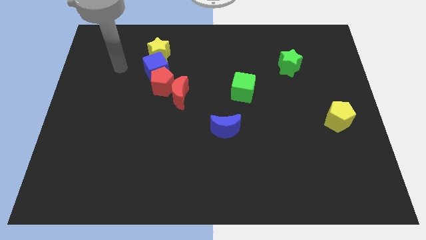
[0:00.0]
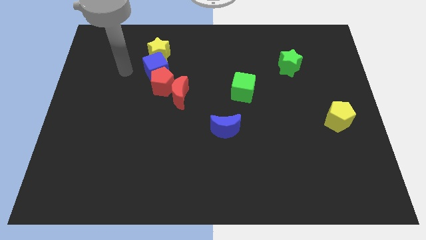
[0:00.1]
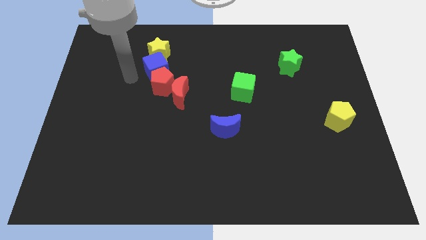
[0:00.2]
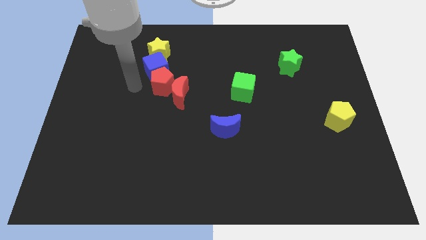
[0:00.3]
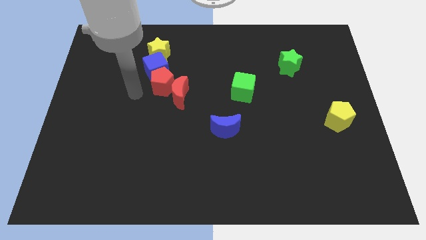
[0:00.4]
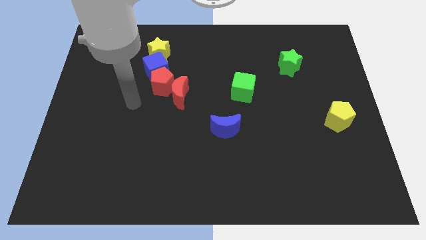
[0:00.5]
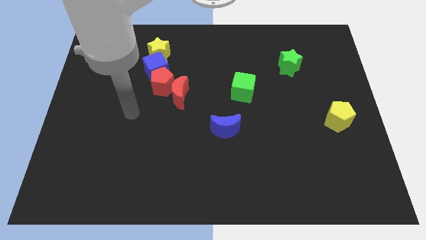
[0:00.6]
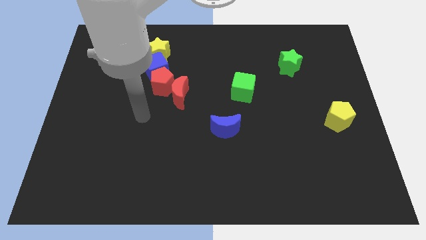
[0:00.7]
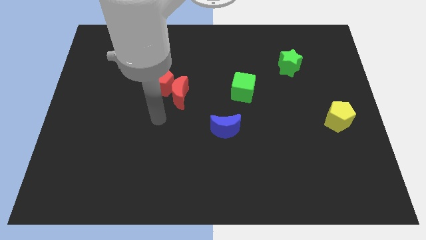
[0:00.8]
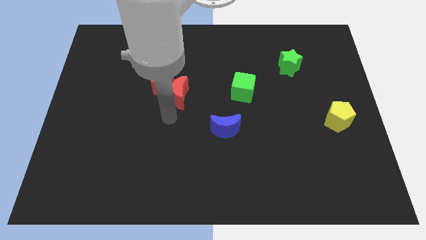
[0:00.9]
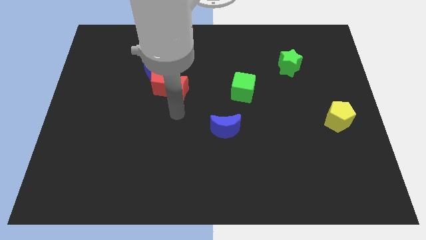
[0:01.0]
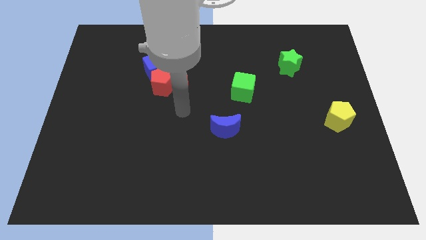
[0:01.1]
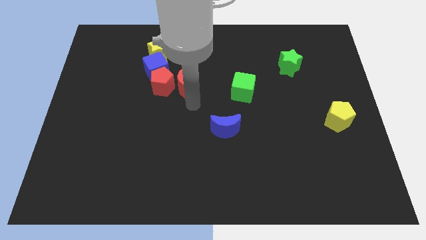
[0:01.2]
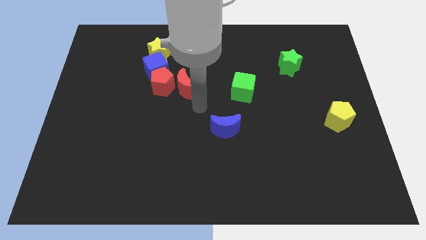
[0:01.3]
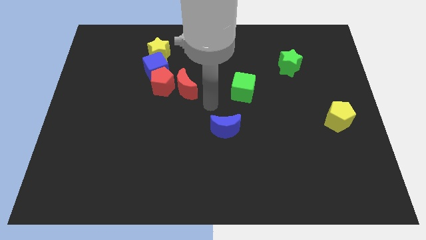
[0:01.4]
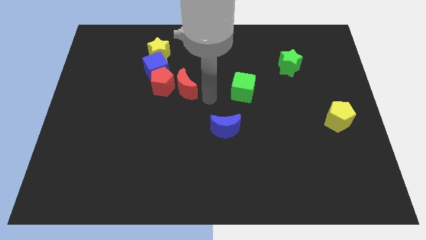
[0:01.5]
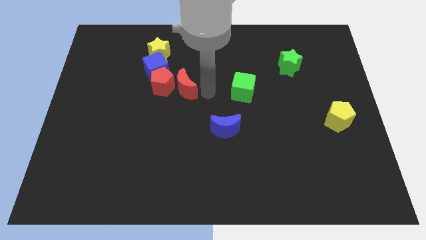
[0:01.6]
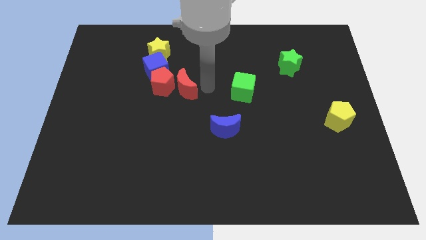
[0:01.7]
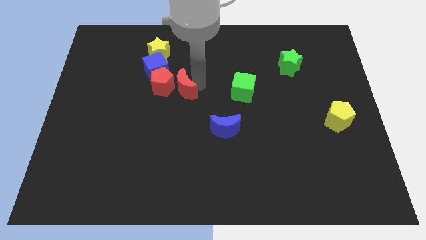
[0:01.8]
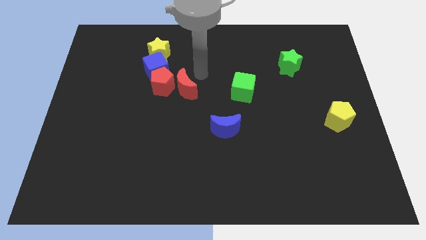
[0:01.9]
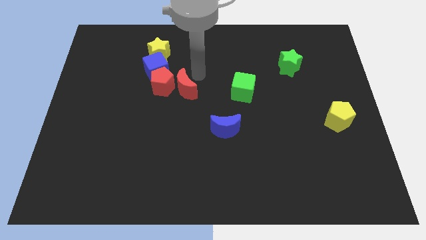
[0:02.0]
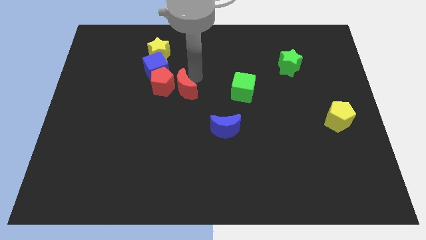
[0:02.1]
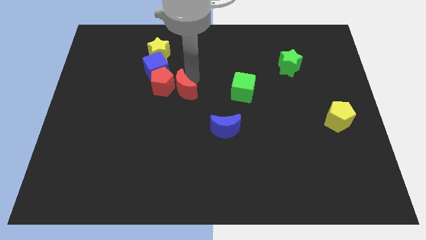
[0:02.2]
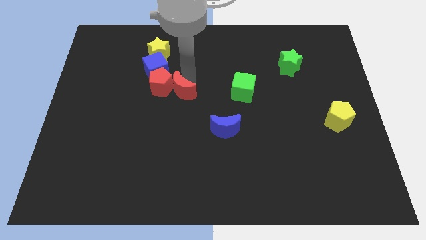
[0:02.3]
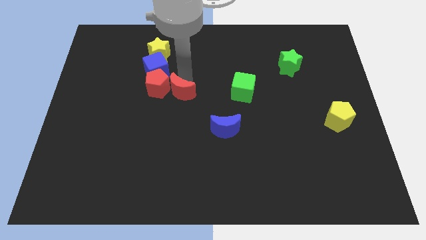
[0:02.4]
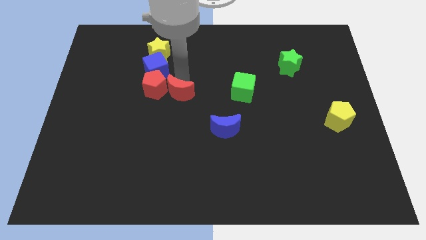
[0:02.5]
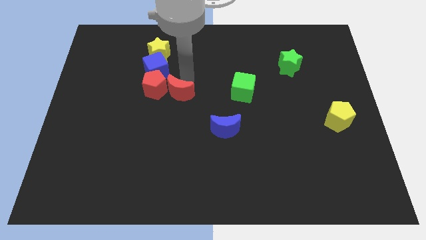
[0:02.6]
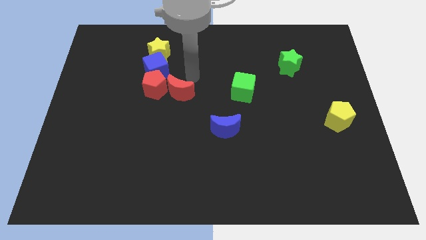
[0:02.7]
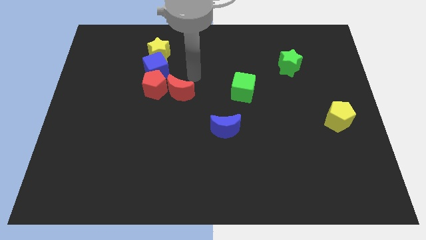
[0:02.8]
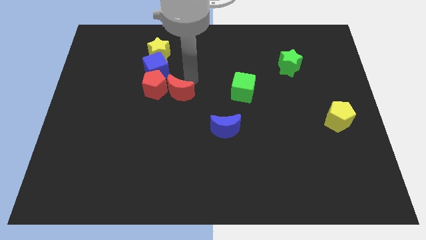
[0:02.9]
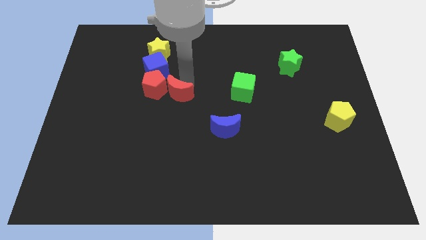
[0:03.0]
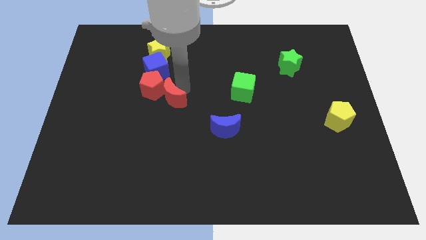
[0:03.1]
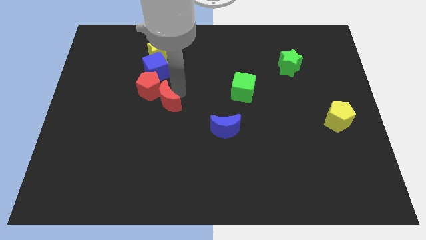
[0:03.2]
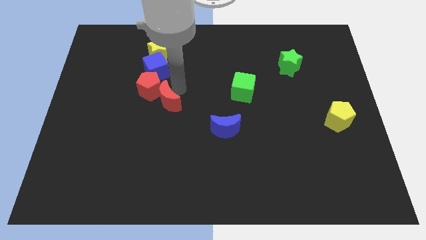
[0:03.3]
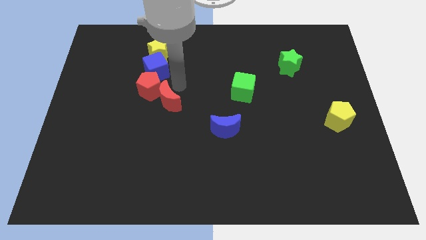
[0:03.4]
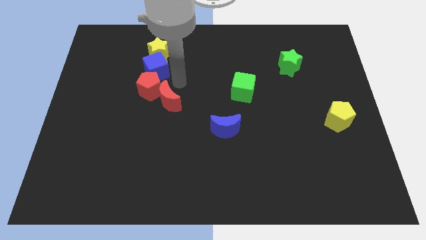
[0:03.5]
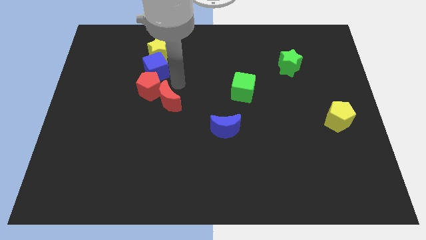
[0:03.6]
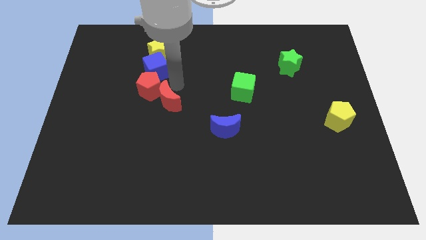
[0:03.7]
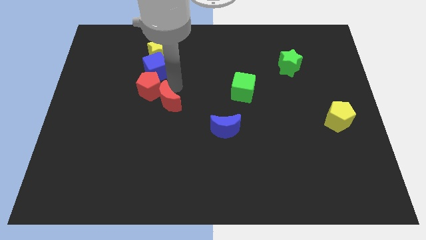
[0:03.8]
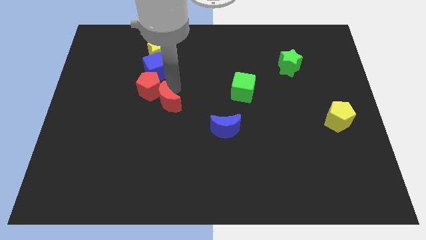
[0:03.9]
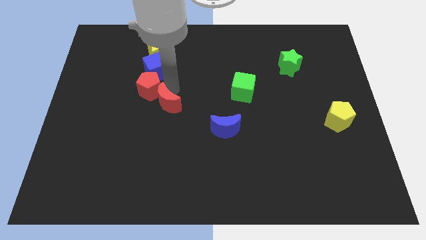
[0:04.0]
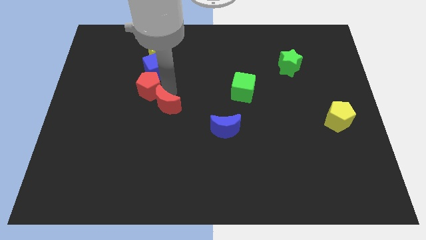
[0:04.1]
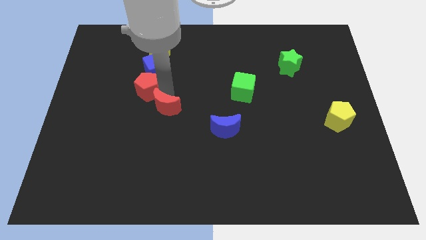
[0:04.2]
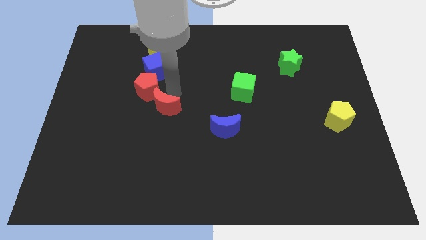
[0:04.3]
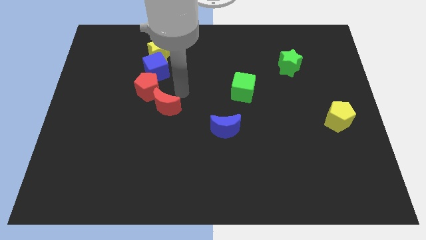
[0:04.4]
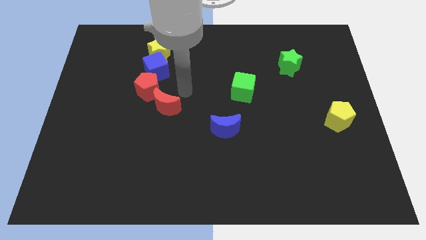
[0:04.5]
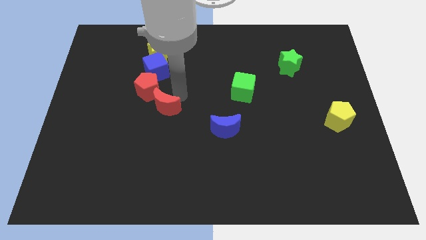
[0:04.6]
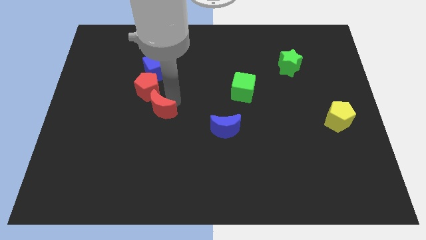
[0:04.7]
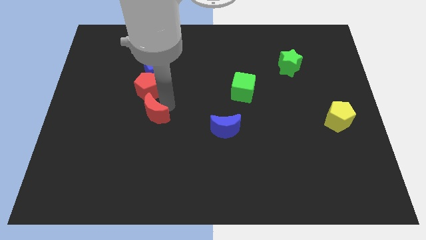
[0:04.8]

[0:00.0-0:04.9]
move the red moon a little down and then left

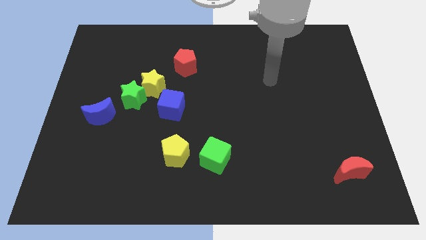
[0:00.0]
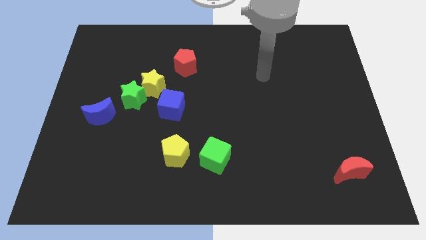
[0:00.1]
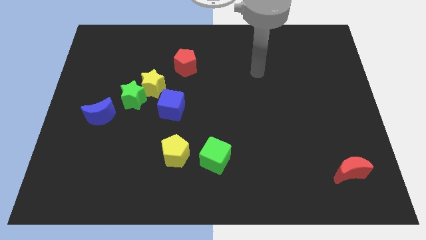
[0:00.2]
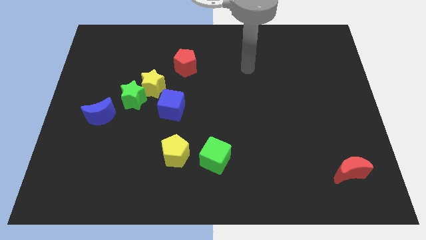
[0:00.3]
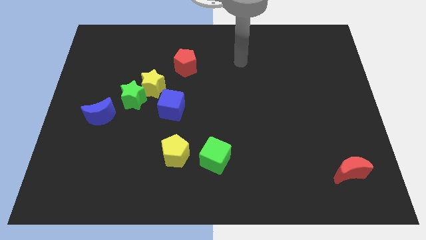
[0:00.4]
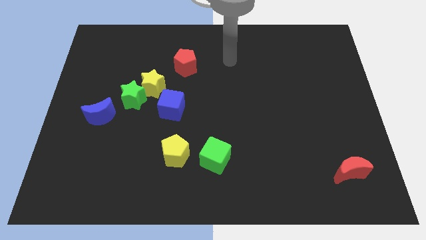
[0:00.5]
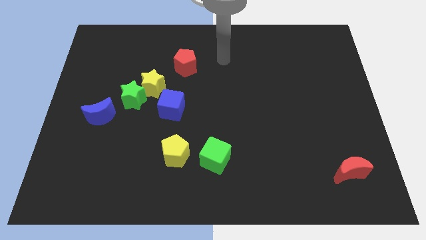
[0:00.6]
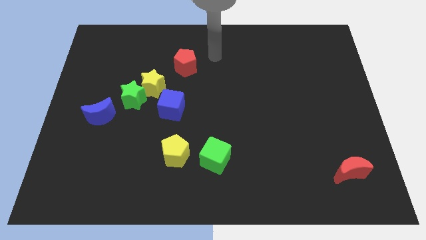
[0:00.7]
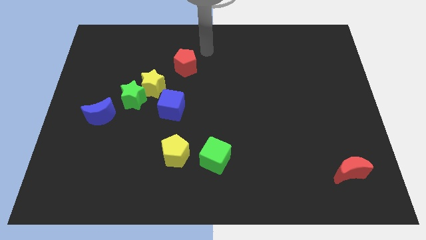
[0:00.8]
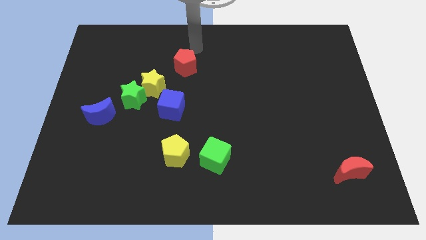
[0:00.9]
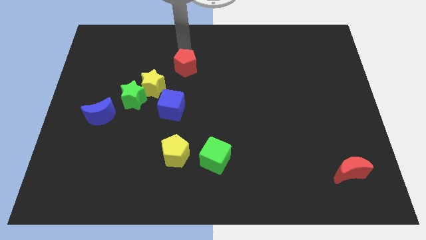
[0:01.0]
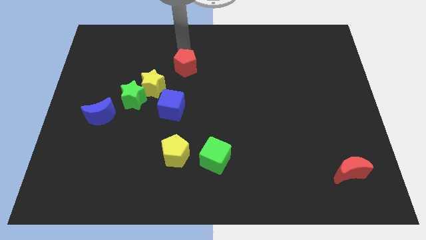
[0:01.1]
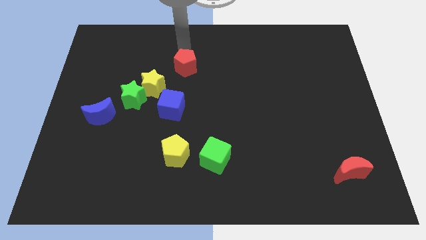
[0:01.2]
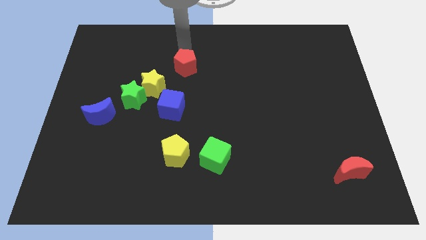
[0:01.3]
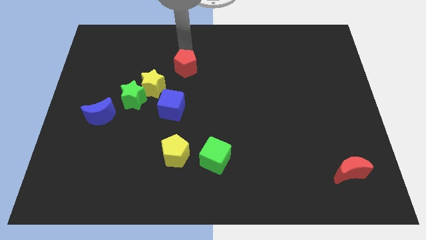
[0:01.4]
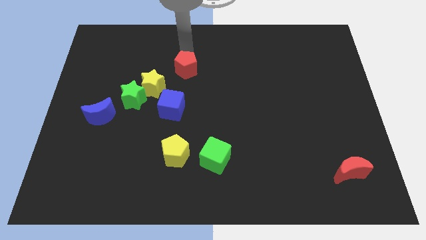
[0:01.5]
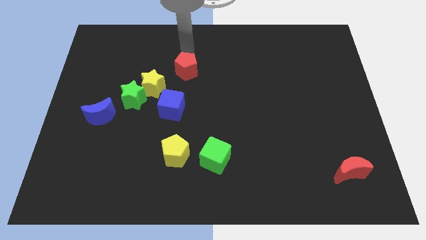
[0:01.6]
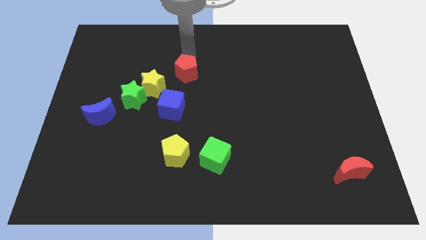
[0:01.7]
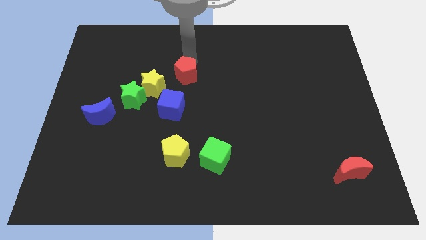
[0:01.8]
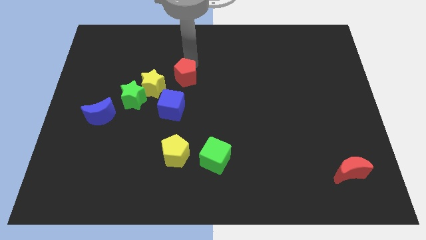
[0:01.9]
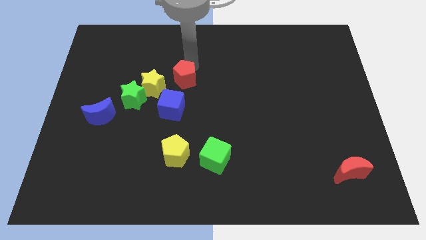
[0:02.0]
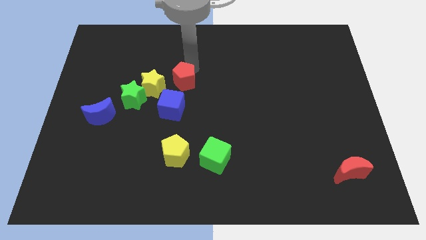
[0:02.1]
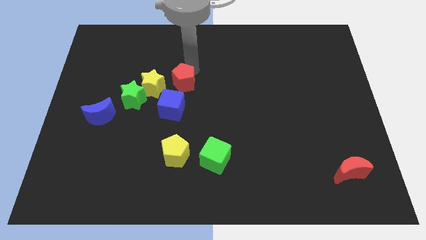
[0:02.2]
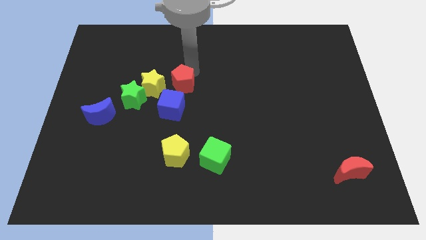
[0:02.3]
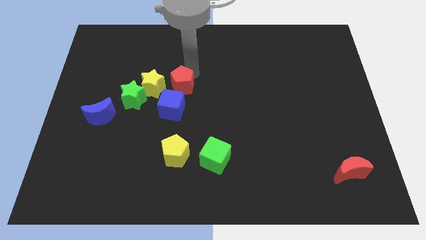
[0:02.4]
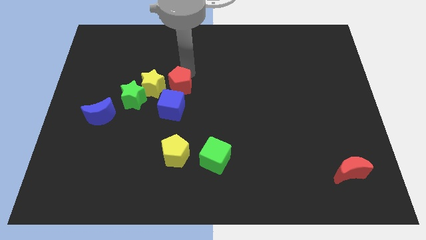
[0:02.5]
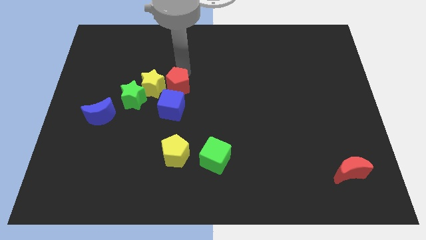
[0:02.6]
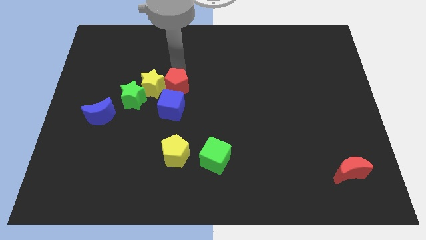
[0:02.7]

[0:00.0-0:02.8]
slightly slide the red pentagon down
